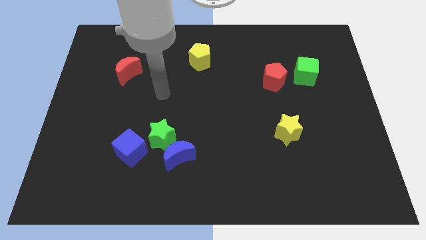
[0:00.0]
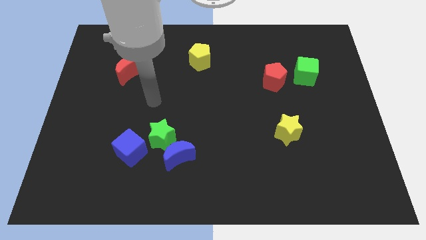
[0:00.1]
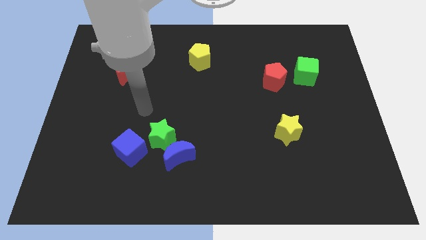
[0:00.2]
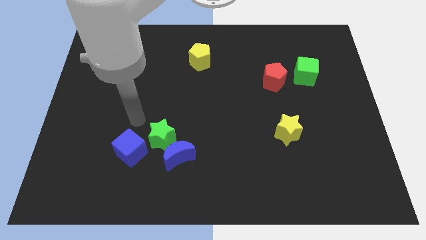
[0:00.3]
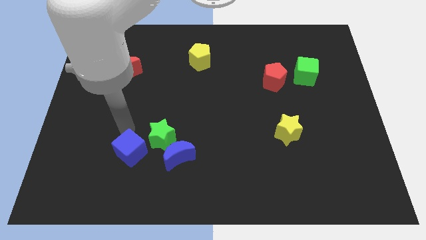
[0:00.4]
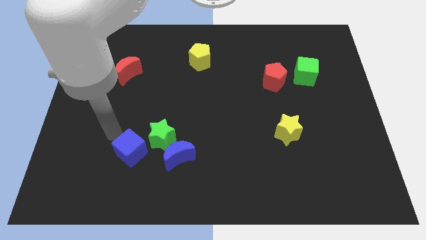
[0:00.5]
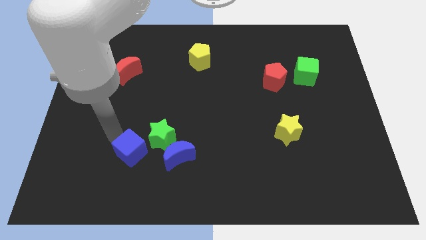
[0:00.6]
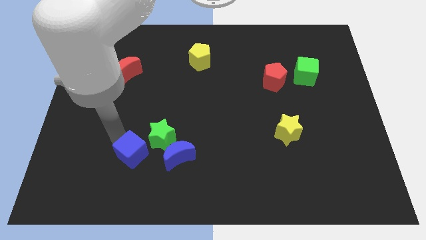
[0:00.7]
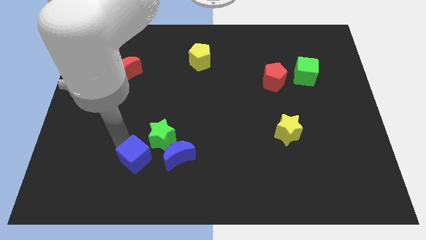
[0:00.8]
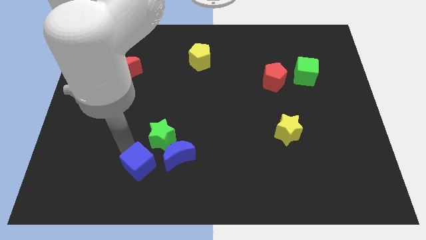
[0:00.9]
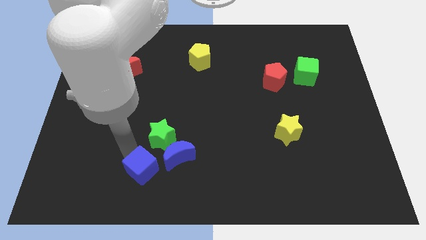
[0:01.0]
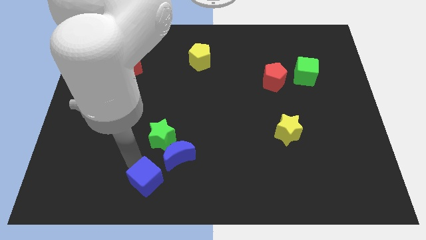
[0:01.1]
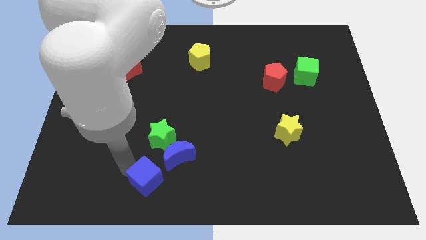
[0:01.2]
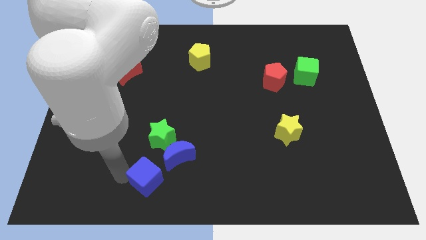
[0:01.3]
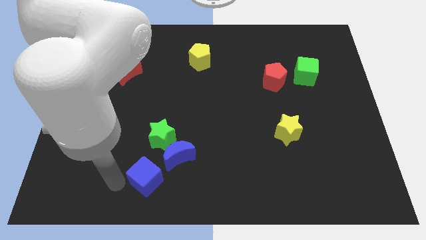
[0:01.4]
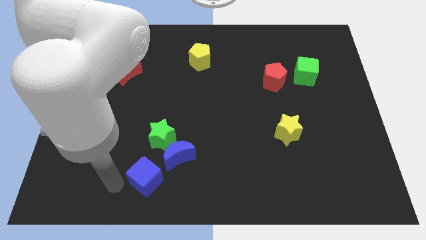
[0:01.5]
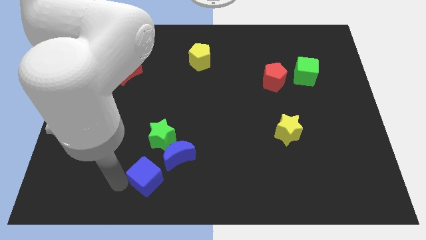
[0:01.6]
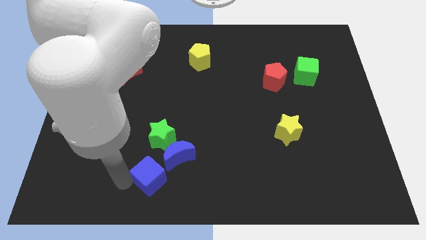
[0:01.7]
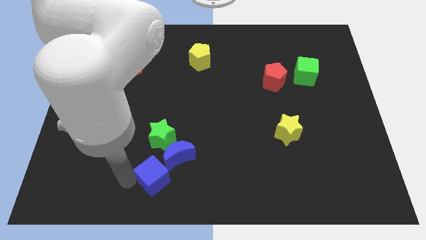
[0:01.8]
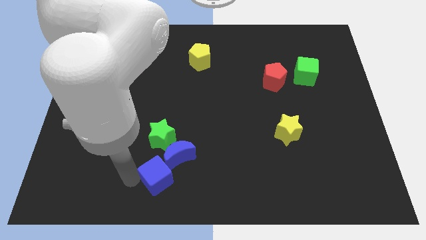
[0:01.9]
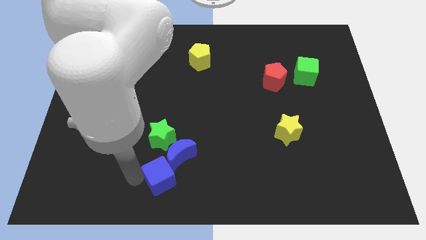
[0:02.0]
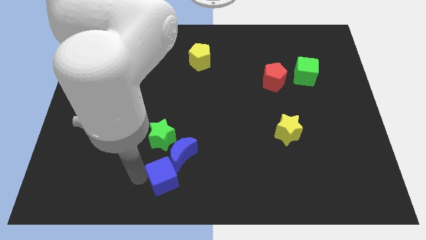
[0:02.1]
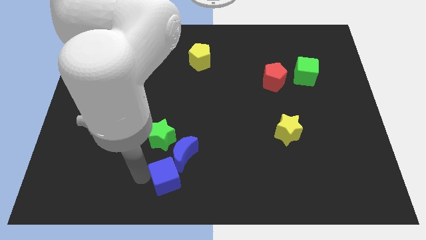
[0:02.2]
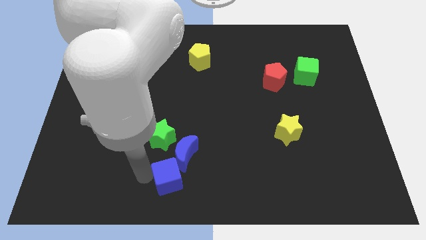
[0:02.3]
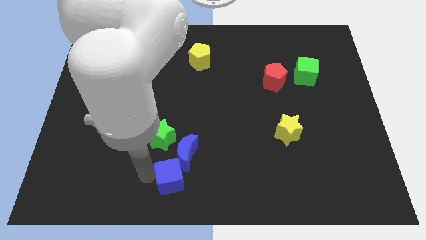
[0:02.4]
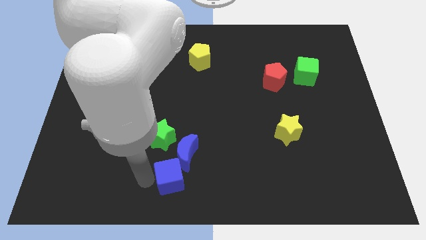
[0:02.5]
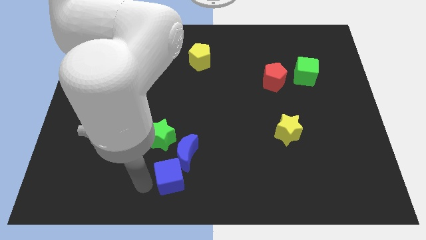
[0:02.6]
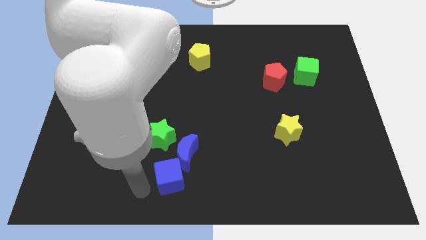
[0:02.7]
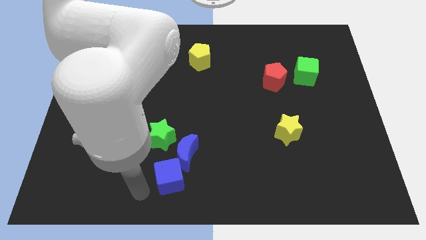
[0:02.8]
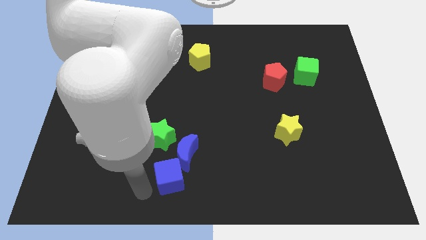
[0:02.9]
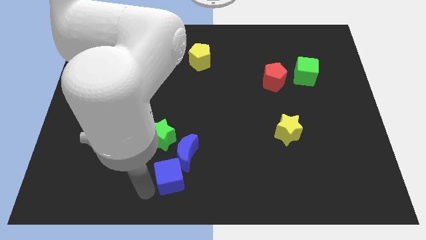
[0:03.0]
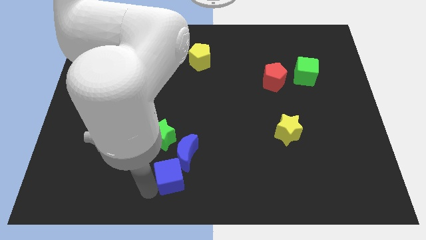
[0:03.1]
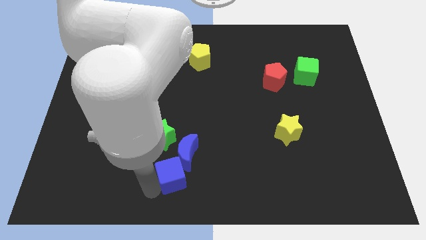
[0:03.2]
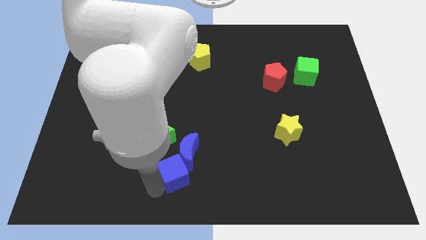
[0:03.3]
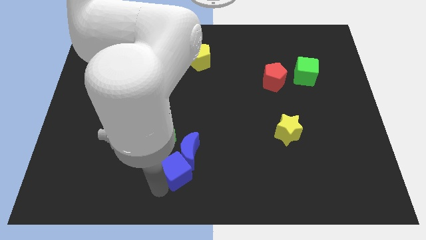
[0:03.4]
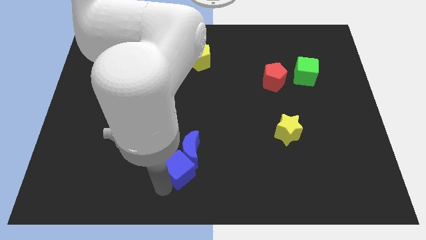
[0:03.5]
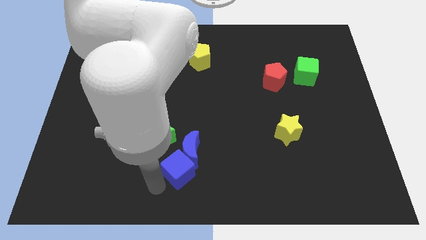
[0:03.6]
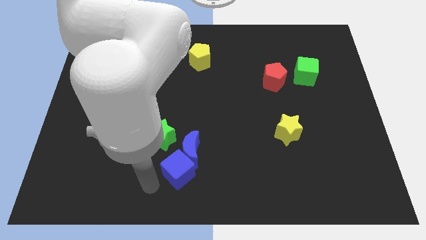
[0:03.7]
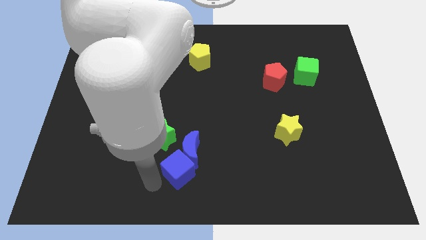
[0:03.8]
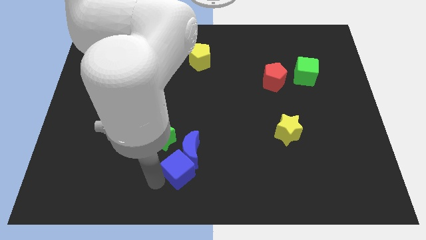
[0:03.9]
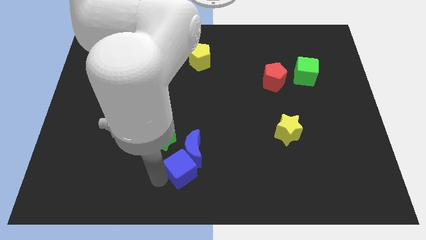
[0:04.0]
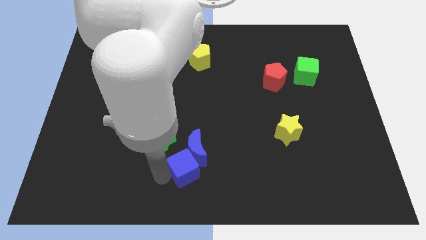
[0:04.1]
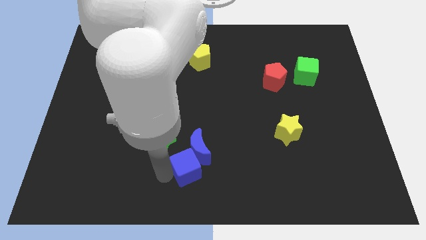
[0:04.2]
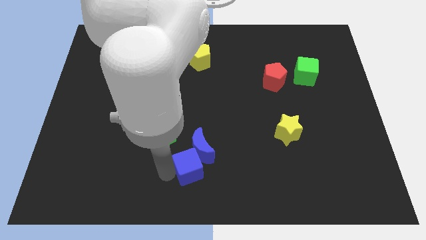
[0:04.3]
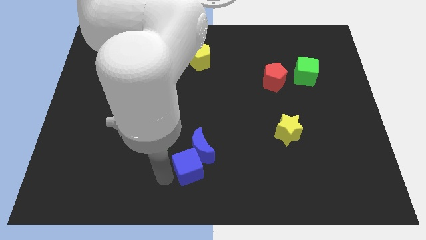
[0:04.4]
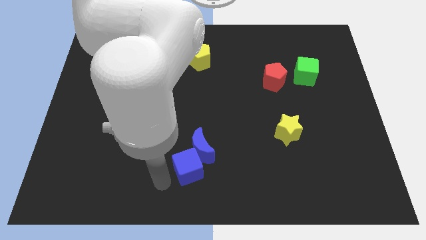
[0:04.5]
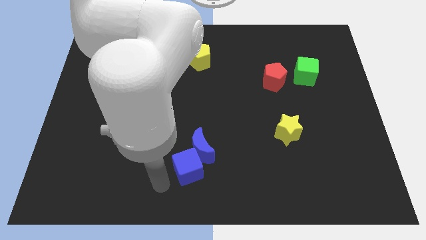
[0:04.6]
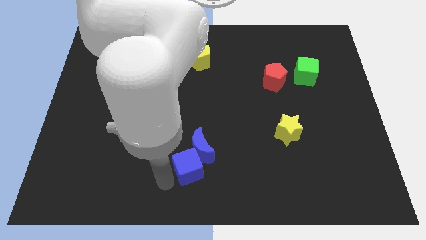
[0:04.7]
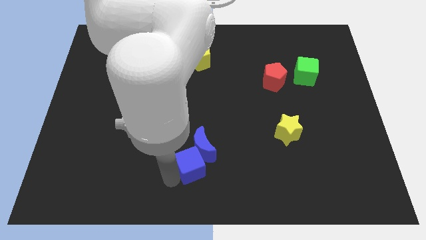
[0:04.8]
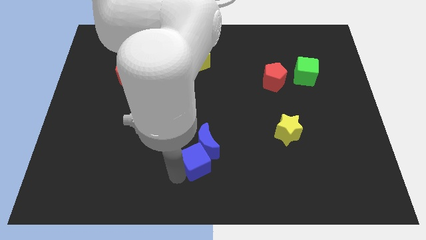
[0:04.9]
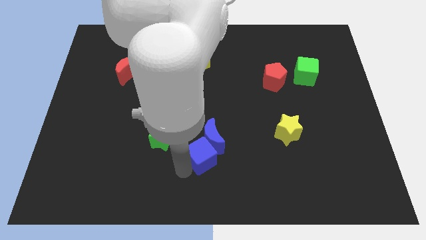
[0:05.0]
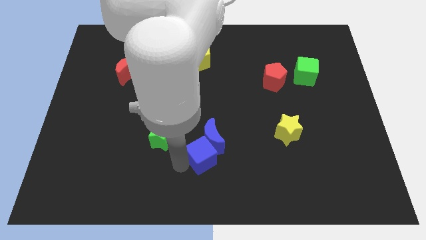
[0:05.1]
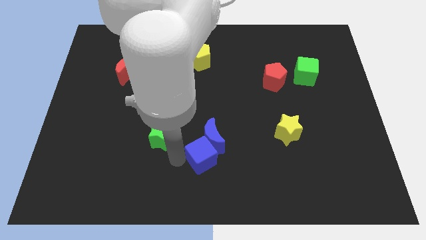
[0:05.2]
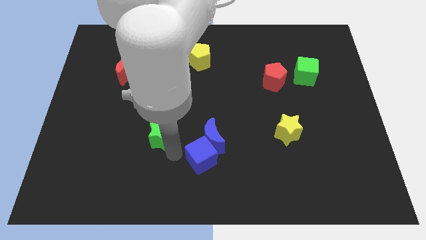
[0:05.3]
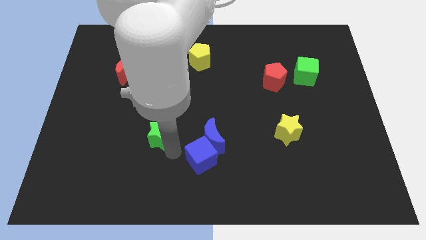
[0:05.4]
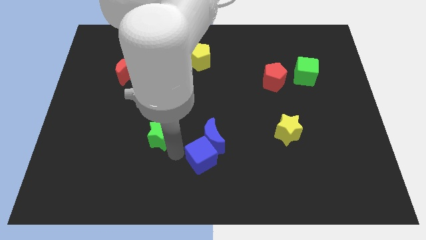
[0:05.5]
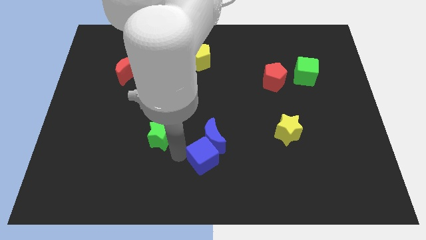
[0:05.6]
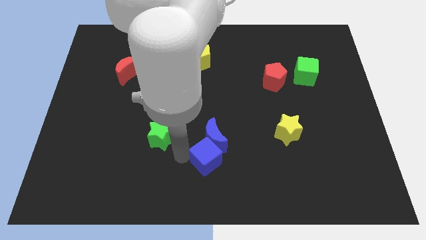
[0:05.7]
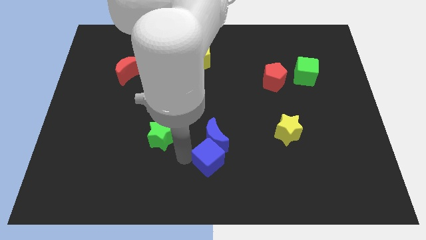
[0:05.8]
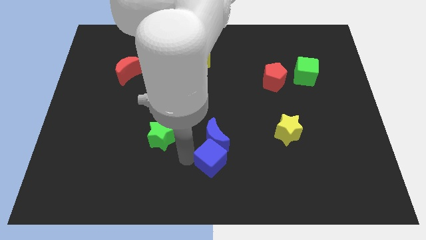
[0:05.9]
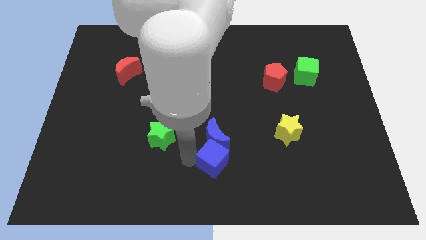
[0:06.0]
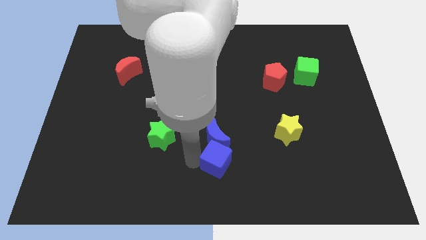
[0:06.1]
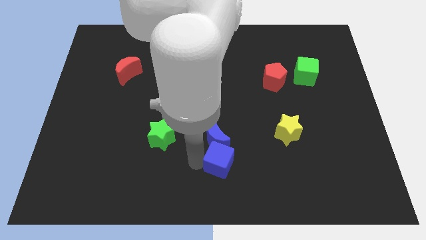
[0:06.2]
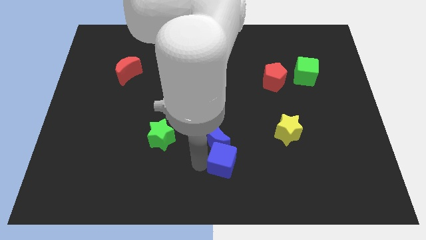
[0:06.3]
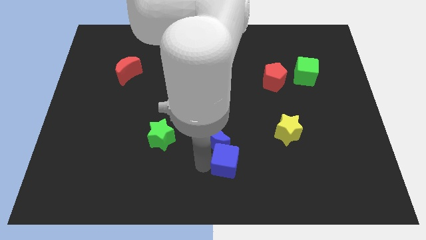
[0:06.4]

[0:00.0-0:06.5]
slide the blue cube to the right

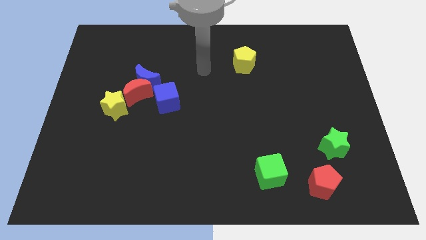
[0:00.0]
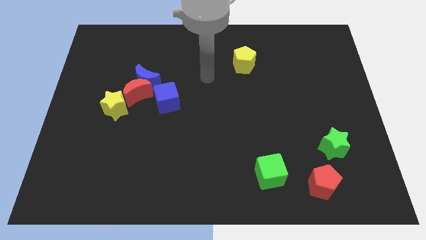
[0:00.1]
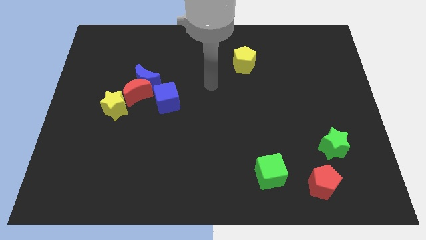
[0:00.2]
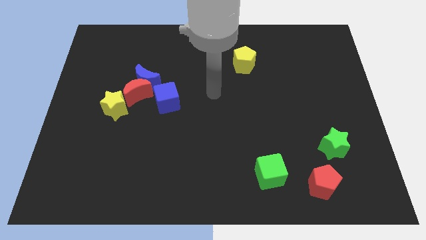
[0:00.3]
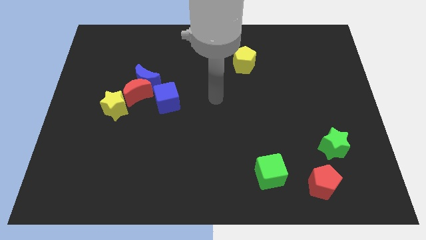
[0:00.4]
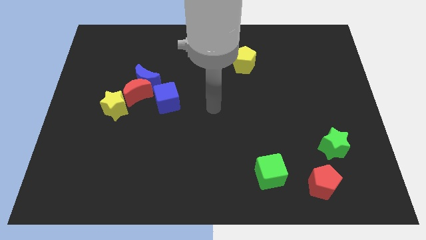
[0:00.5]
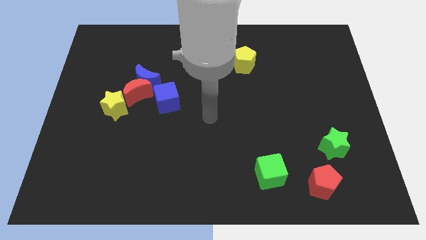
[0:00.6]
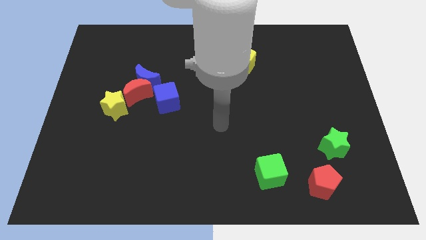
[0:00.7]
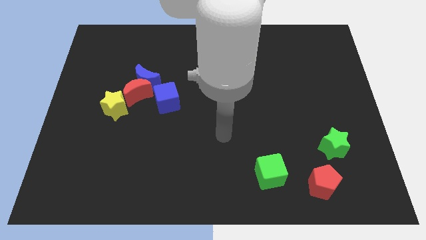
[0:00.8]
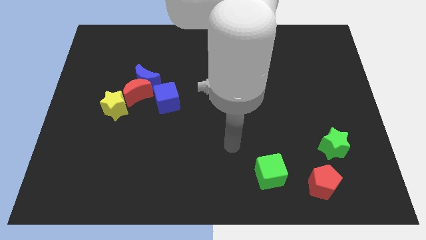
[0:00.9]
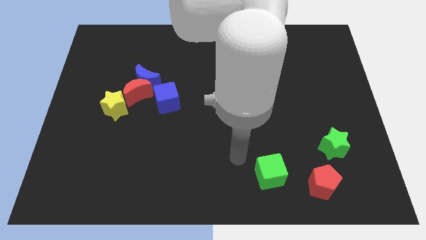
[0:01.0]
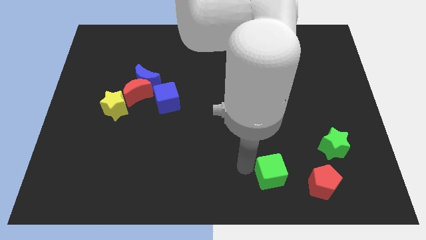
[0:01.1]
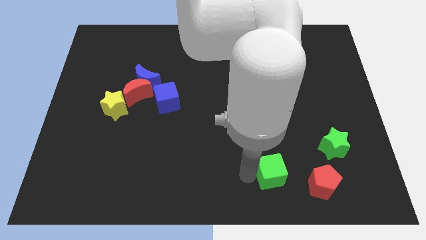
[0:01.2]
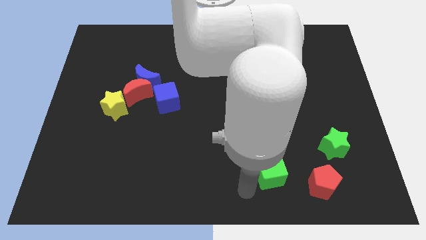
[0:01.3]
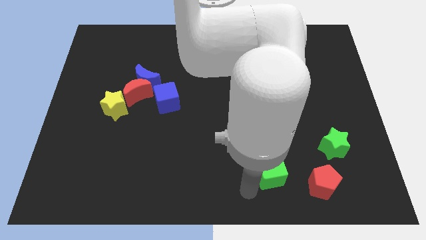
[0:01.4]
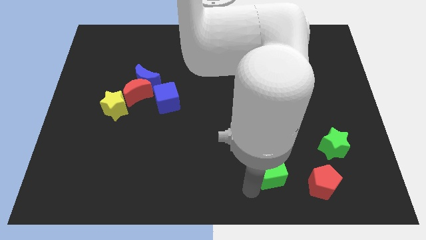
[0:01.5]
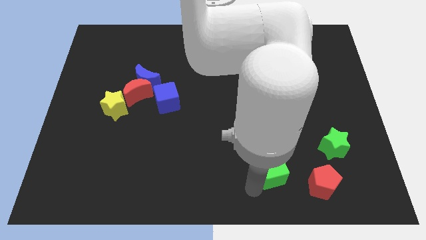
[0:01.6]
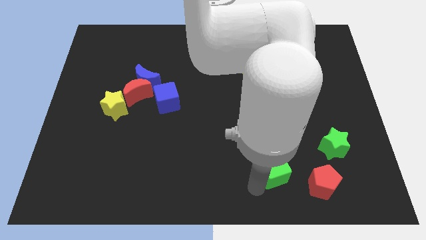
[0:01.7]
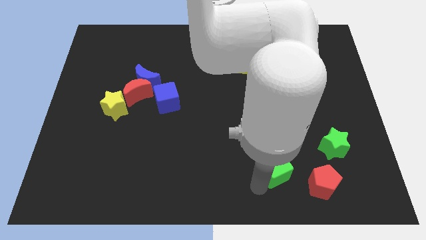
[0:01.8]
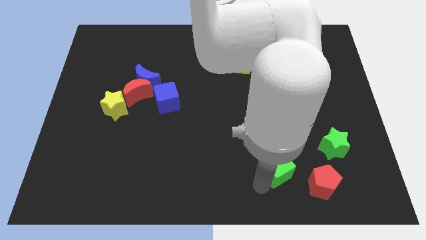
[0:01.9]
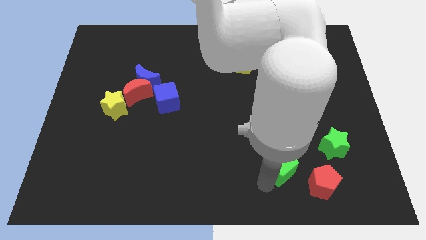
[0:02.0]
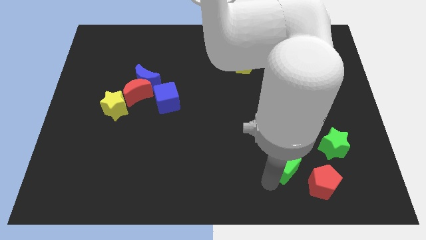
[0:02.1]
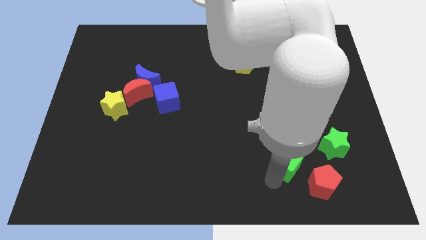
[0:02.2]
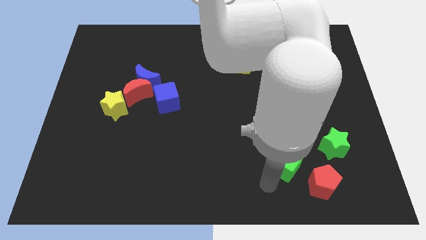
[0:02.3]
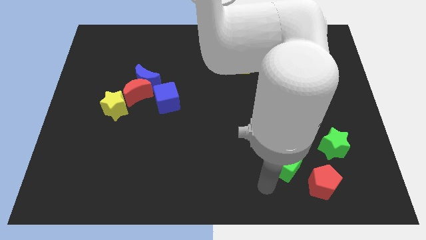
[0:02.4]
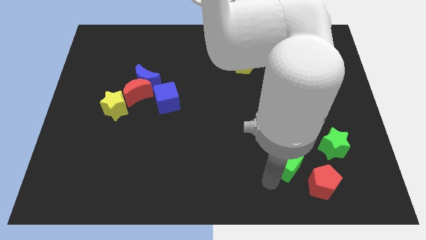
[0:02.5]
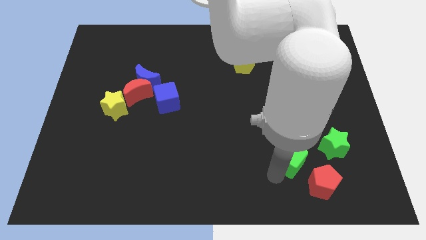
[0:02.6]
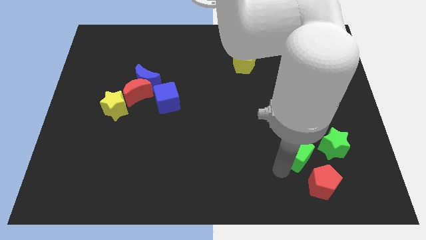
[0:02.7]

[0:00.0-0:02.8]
slide the green cube up and to the right somewhat
